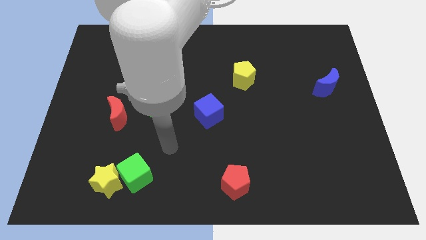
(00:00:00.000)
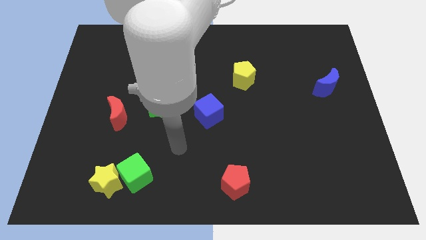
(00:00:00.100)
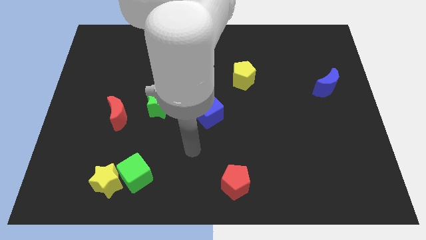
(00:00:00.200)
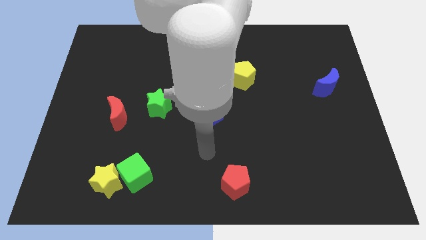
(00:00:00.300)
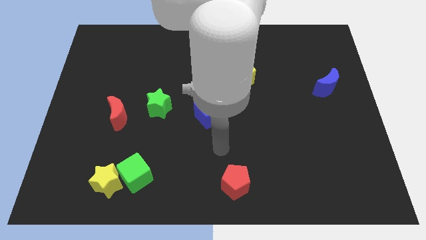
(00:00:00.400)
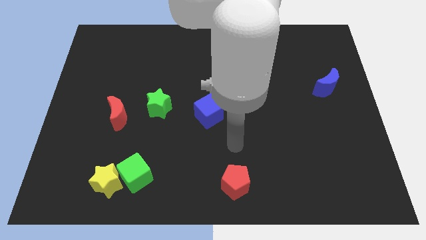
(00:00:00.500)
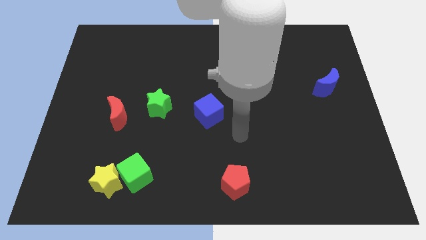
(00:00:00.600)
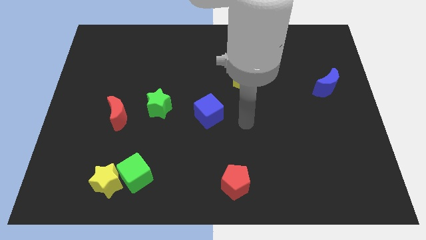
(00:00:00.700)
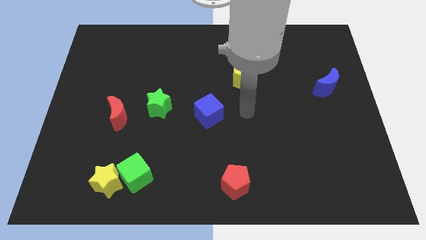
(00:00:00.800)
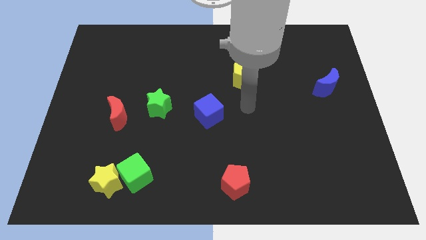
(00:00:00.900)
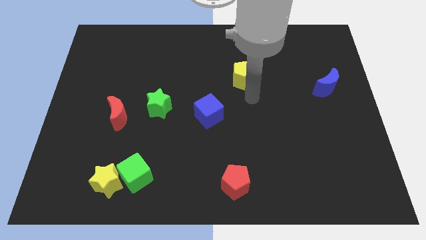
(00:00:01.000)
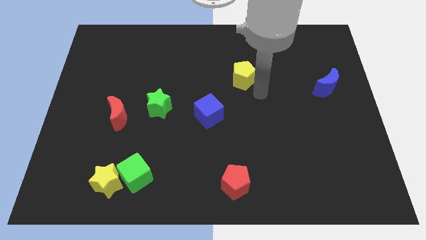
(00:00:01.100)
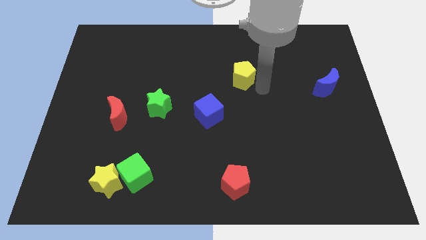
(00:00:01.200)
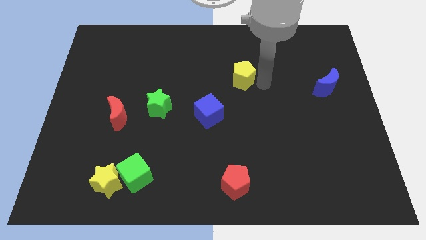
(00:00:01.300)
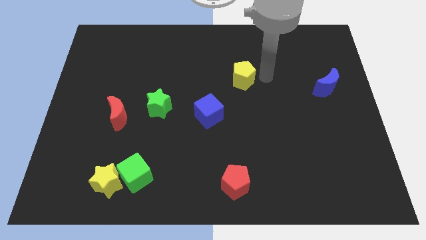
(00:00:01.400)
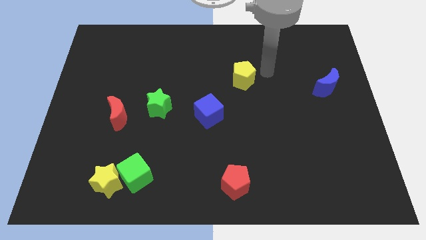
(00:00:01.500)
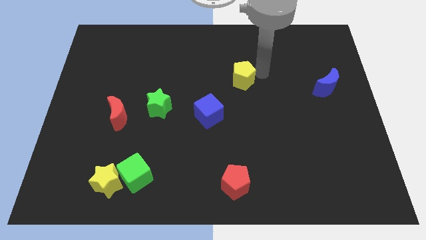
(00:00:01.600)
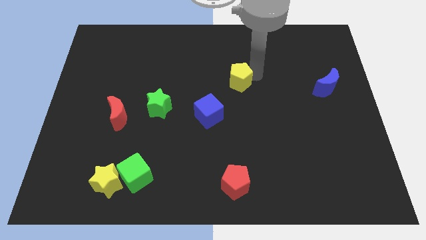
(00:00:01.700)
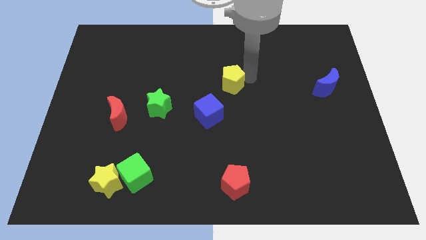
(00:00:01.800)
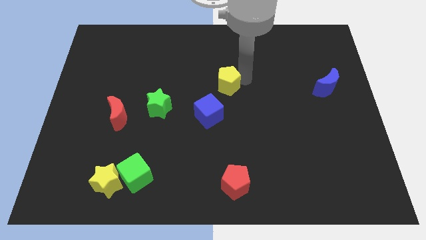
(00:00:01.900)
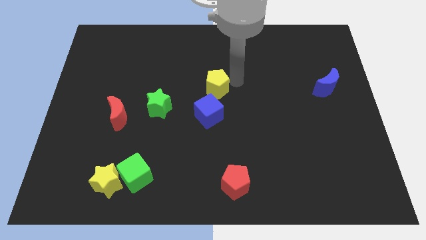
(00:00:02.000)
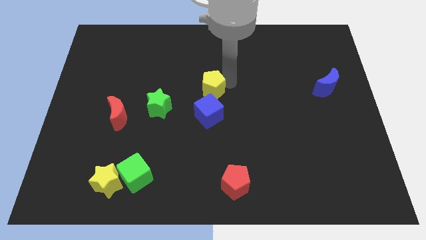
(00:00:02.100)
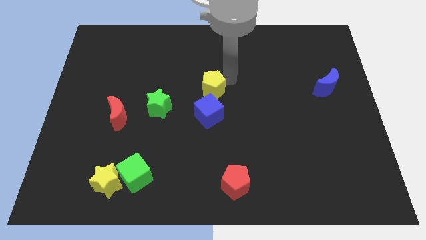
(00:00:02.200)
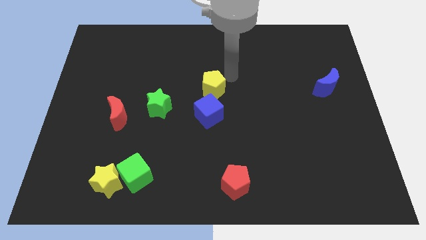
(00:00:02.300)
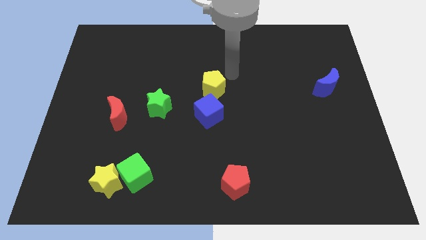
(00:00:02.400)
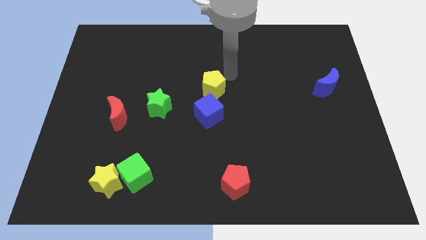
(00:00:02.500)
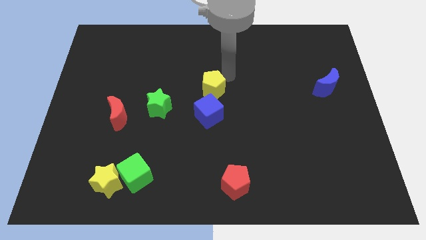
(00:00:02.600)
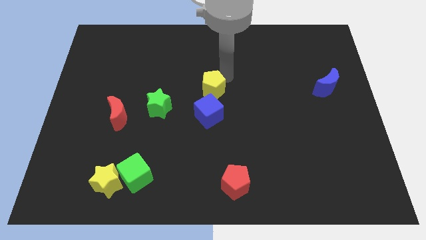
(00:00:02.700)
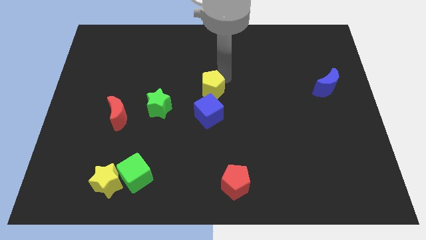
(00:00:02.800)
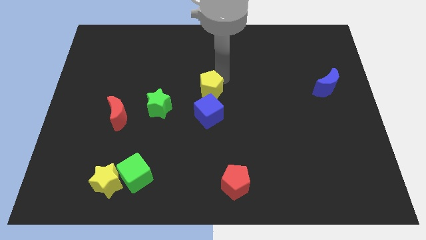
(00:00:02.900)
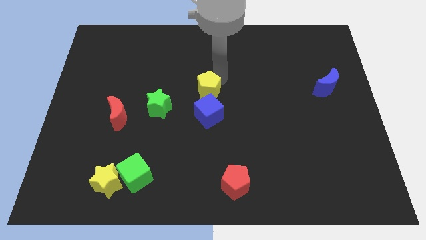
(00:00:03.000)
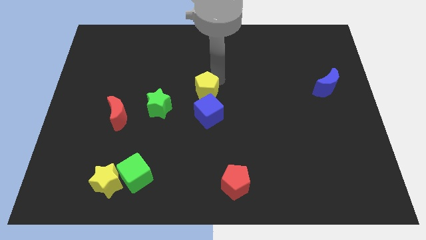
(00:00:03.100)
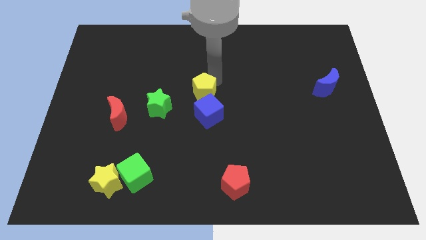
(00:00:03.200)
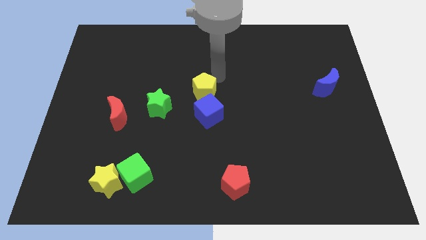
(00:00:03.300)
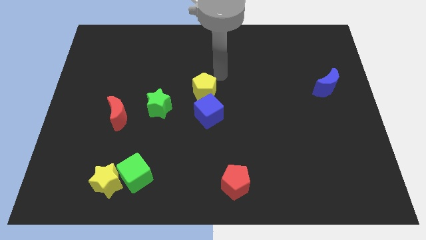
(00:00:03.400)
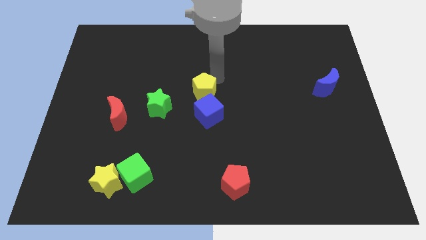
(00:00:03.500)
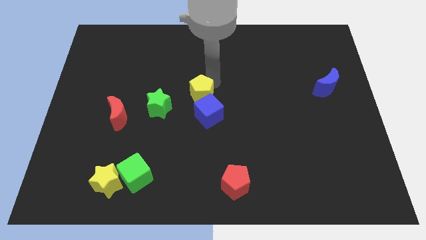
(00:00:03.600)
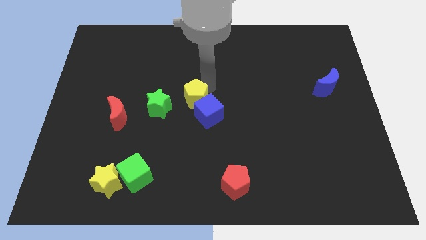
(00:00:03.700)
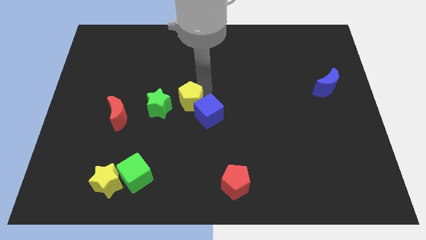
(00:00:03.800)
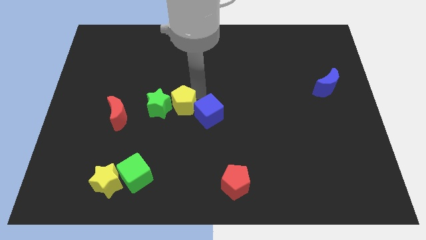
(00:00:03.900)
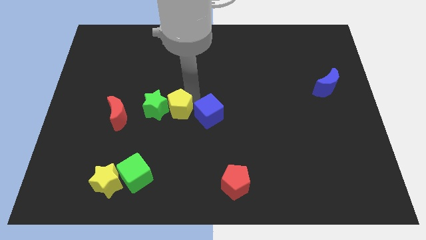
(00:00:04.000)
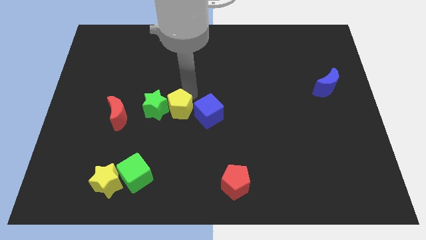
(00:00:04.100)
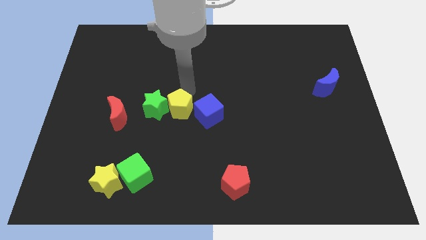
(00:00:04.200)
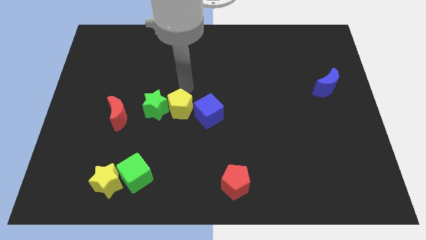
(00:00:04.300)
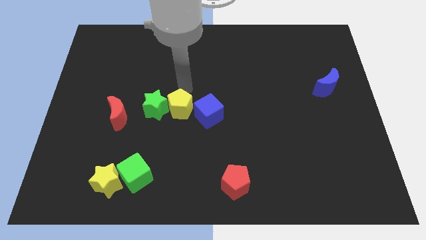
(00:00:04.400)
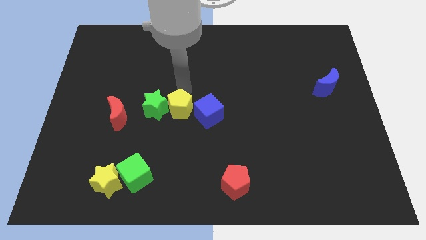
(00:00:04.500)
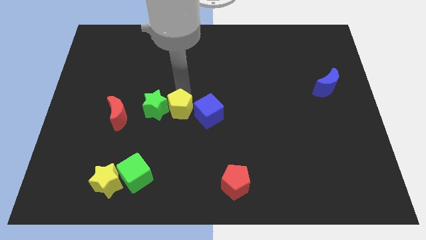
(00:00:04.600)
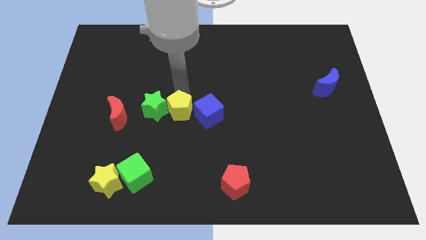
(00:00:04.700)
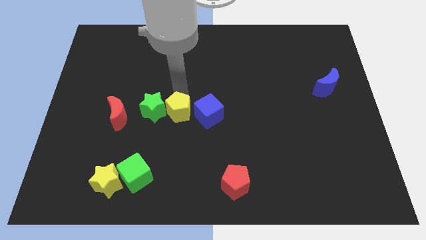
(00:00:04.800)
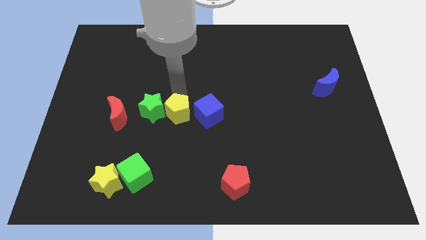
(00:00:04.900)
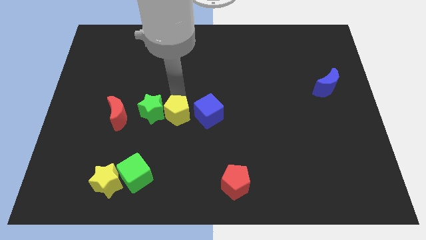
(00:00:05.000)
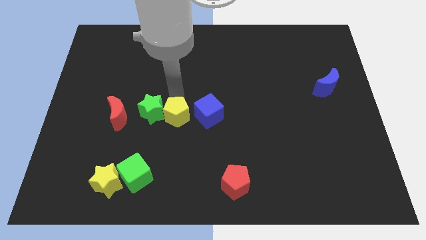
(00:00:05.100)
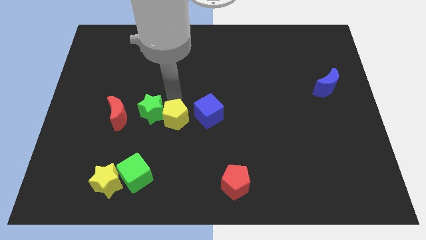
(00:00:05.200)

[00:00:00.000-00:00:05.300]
slide the yellow pentagon downwards and to the left diagonally

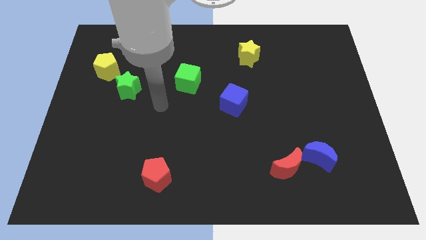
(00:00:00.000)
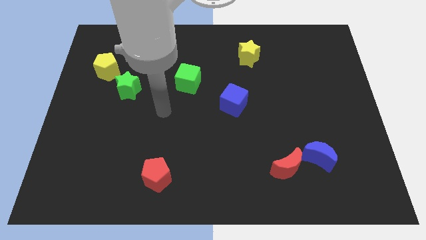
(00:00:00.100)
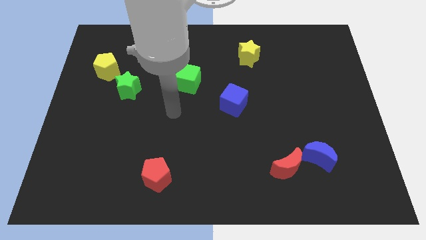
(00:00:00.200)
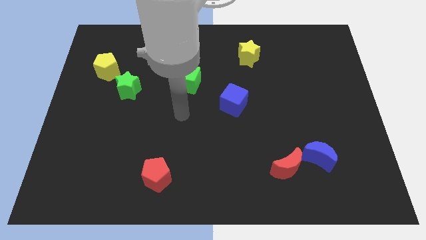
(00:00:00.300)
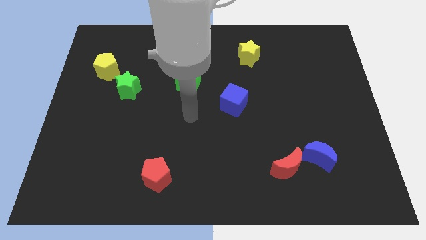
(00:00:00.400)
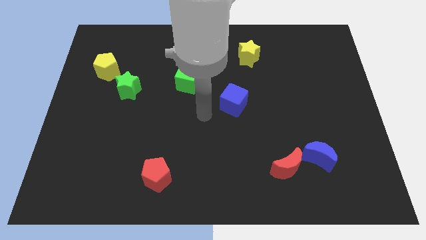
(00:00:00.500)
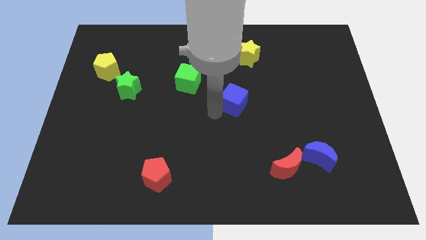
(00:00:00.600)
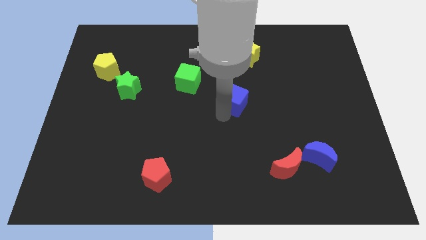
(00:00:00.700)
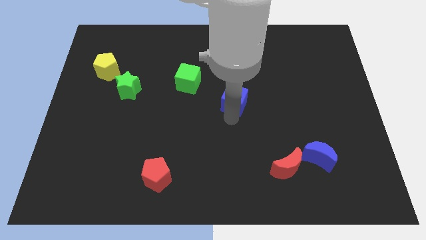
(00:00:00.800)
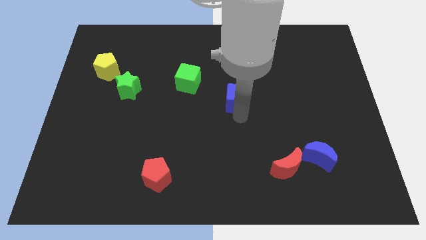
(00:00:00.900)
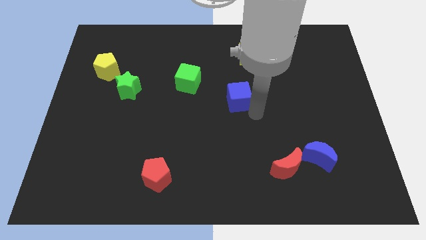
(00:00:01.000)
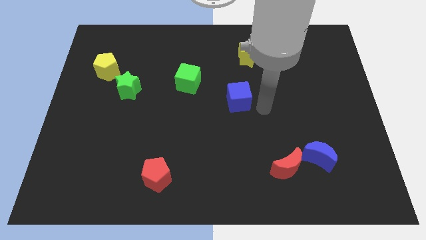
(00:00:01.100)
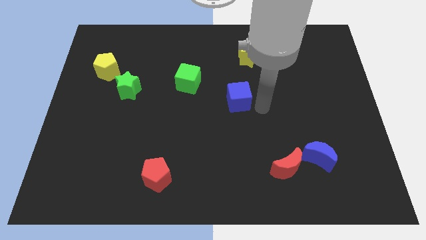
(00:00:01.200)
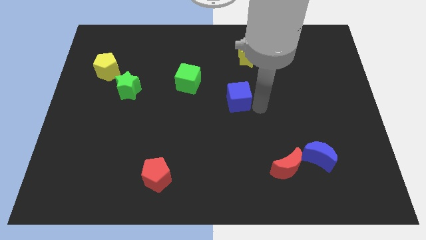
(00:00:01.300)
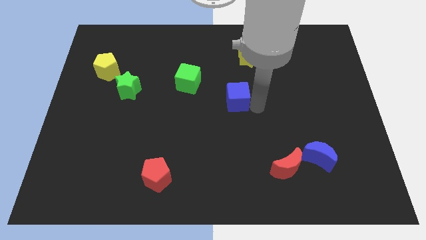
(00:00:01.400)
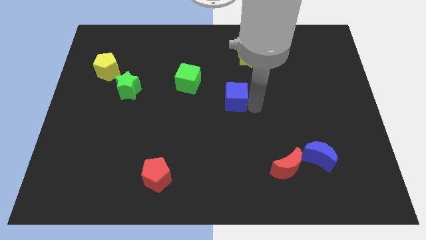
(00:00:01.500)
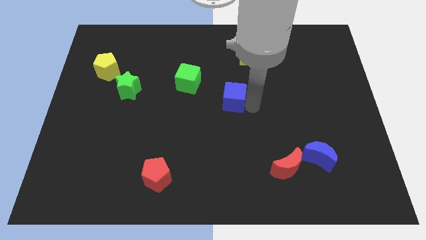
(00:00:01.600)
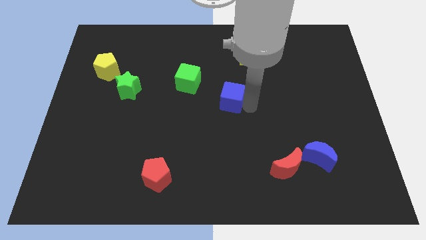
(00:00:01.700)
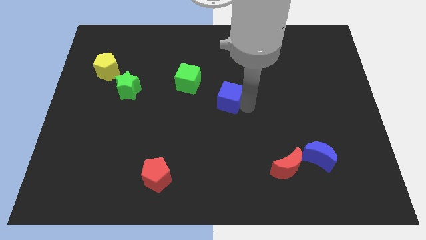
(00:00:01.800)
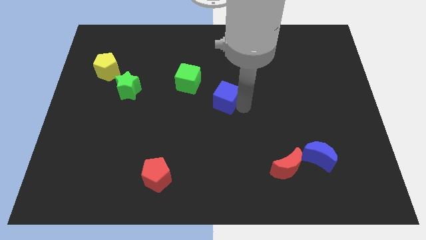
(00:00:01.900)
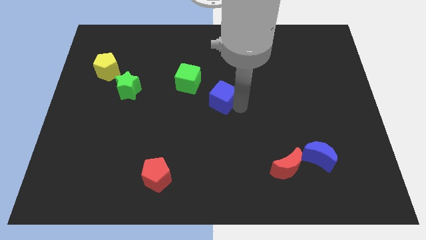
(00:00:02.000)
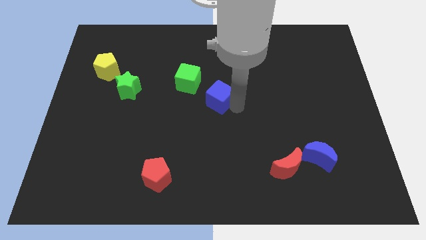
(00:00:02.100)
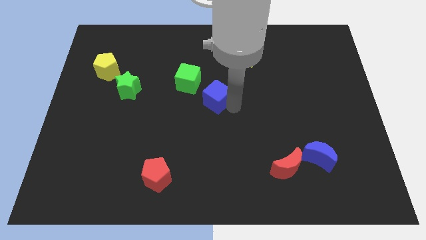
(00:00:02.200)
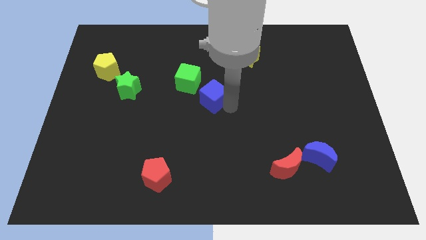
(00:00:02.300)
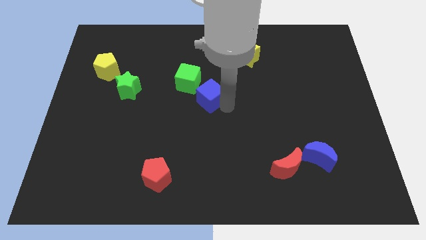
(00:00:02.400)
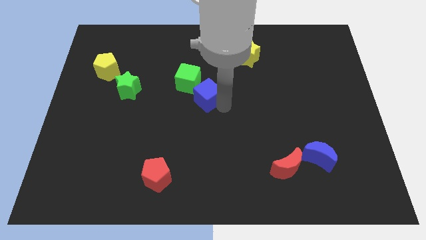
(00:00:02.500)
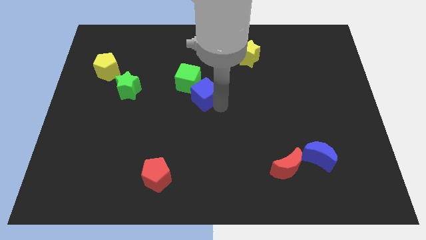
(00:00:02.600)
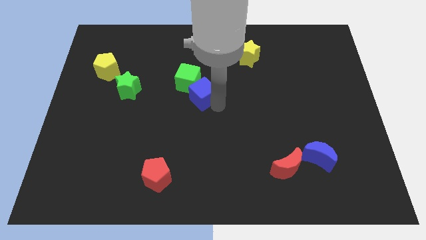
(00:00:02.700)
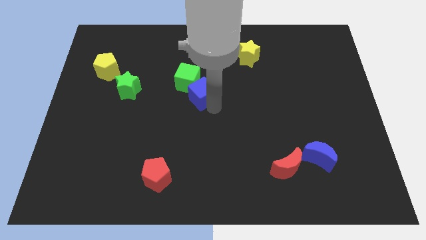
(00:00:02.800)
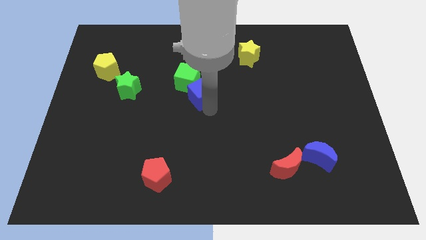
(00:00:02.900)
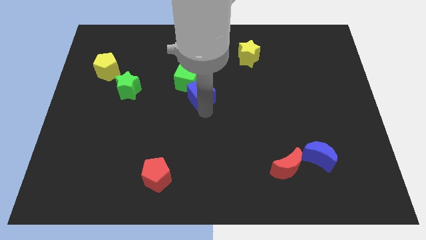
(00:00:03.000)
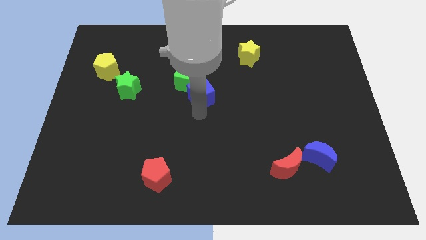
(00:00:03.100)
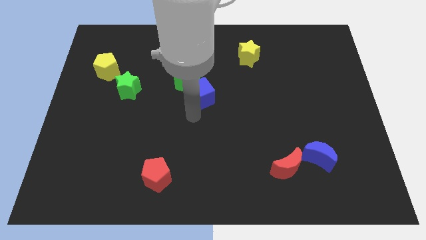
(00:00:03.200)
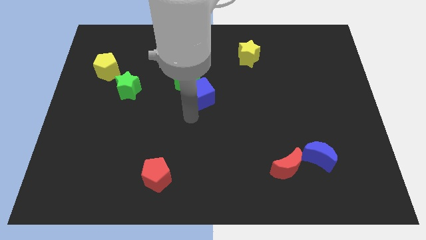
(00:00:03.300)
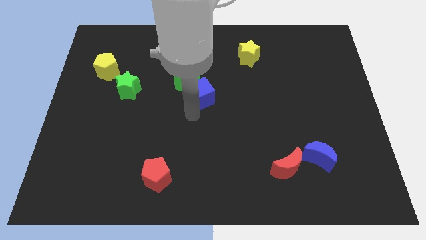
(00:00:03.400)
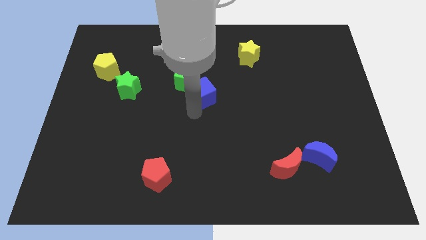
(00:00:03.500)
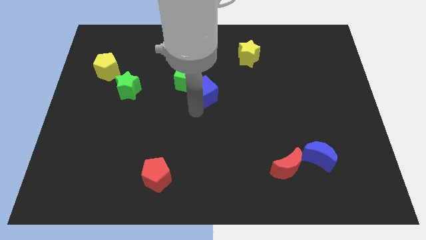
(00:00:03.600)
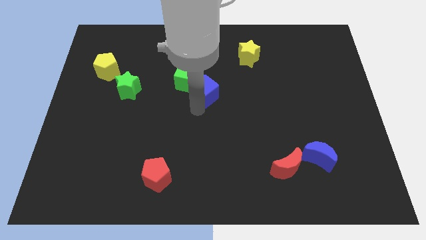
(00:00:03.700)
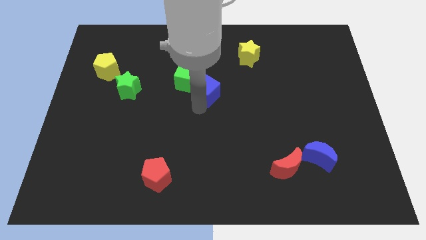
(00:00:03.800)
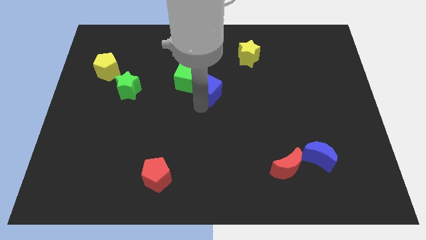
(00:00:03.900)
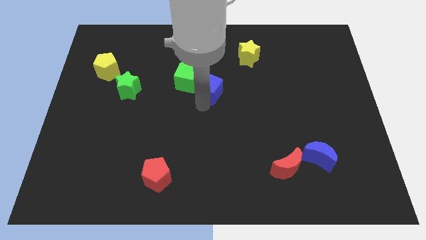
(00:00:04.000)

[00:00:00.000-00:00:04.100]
push the blue cube diagonally up and to the left somewhat
